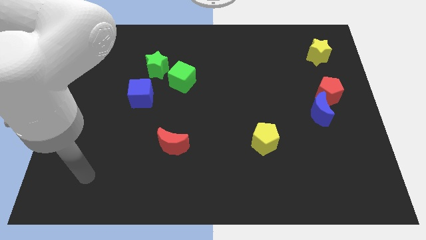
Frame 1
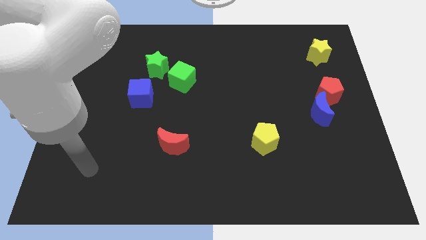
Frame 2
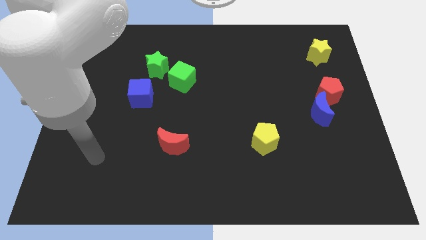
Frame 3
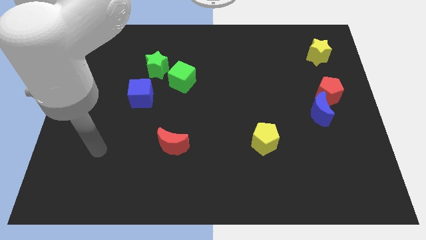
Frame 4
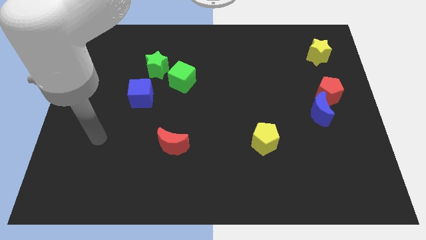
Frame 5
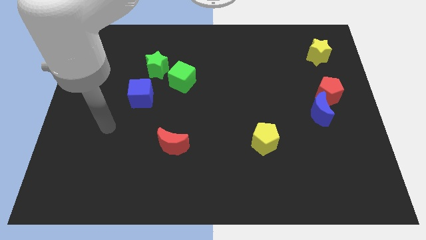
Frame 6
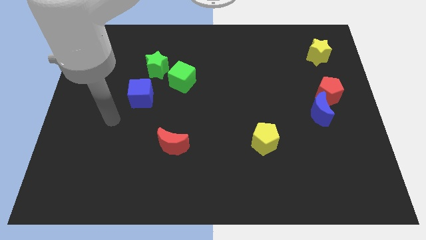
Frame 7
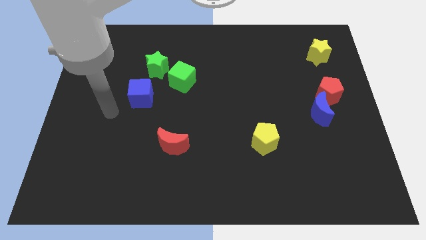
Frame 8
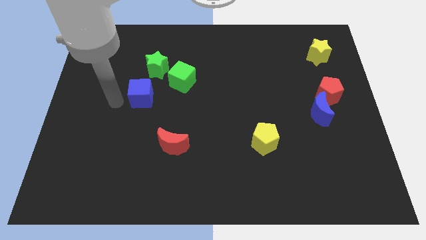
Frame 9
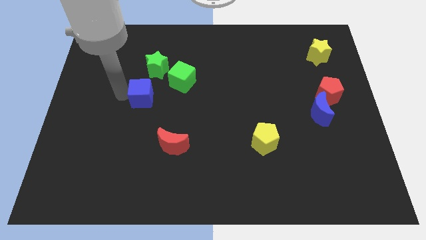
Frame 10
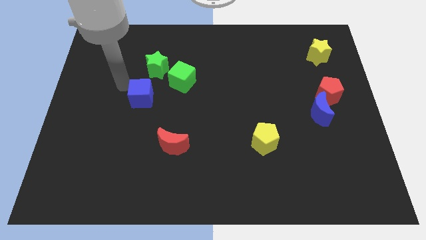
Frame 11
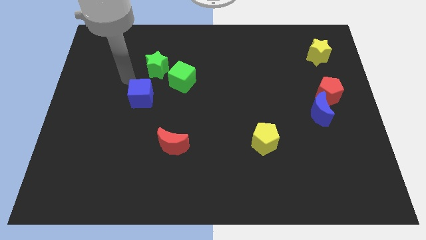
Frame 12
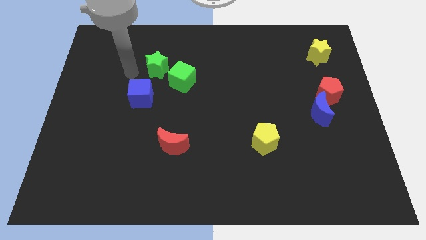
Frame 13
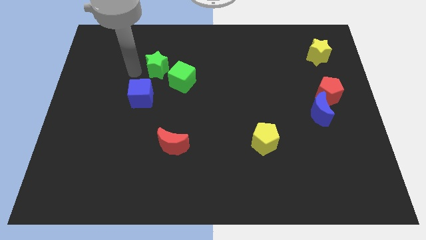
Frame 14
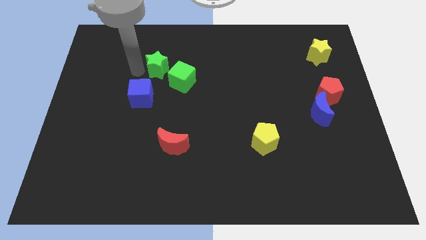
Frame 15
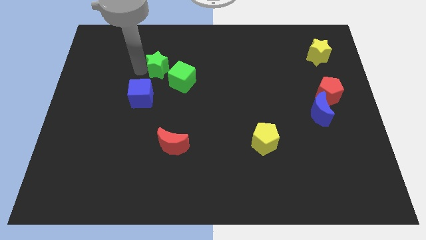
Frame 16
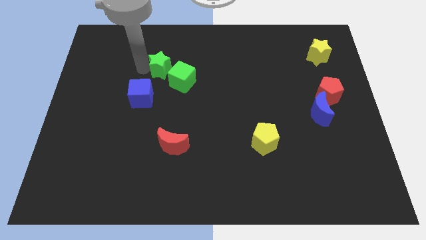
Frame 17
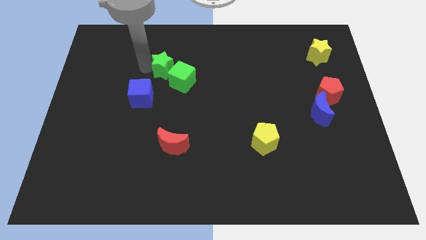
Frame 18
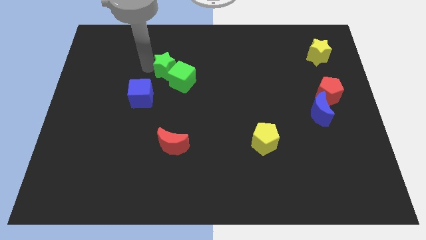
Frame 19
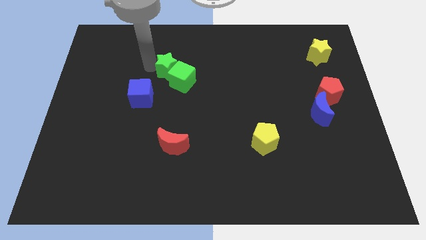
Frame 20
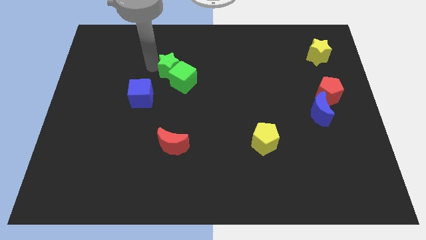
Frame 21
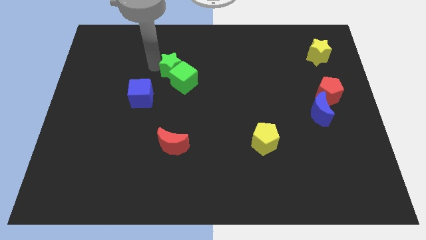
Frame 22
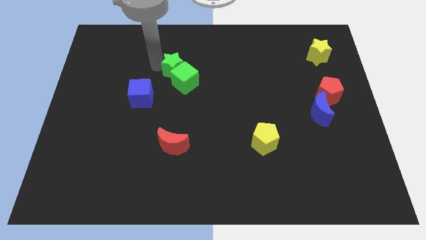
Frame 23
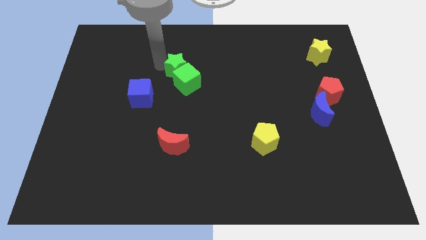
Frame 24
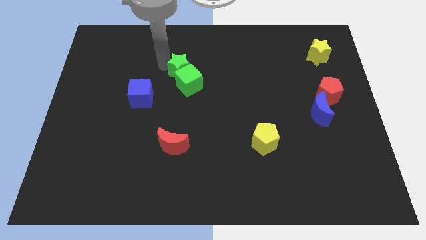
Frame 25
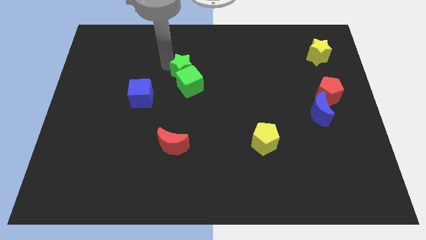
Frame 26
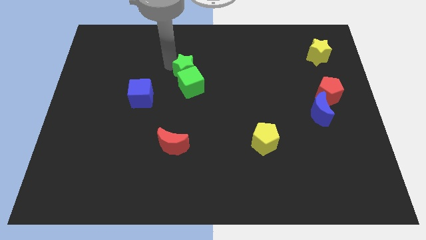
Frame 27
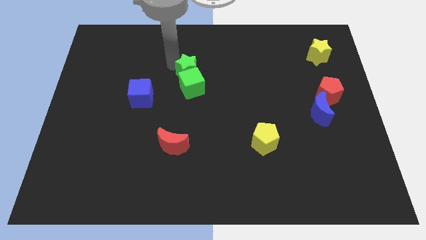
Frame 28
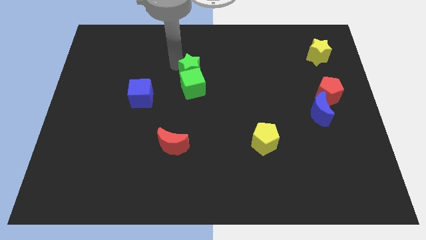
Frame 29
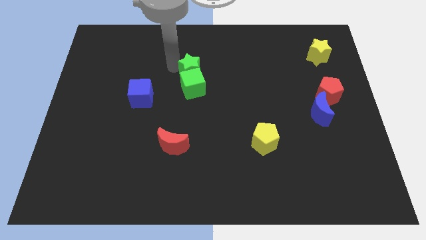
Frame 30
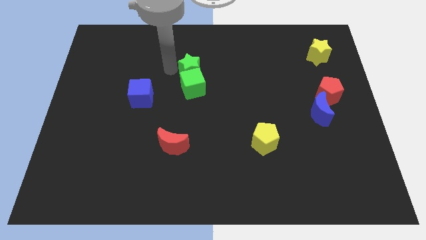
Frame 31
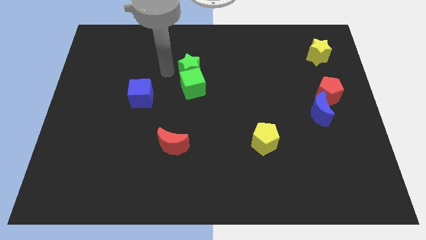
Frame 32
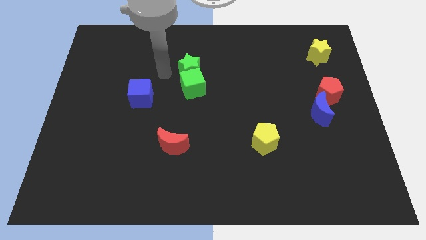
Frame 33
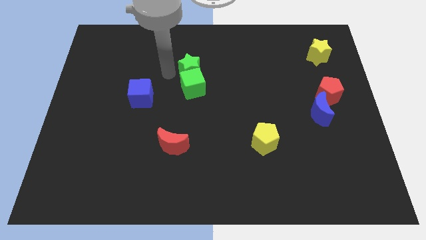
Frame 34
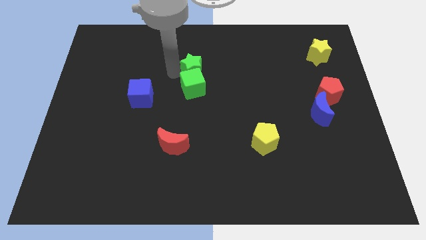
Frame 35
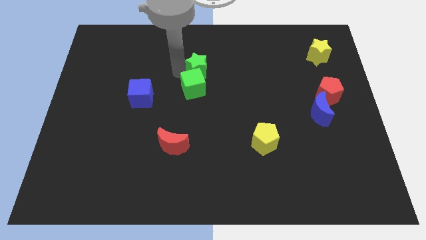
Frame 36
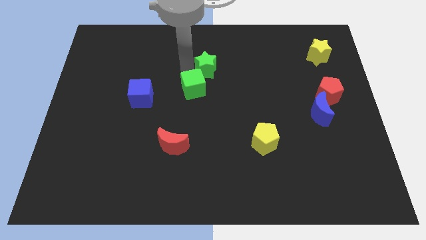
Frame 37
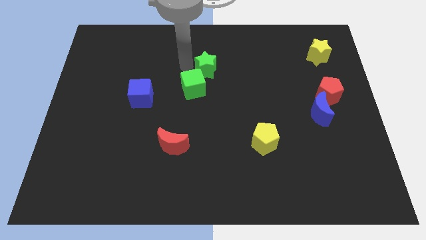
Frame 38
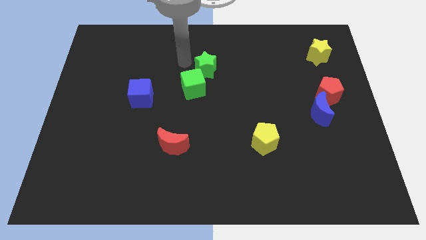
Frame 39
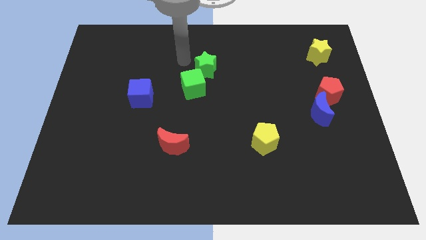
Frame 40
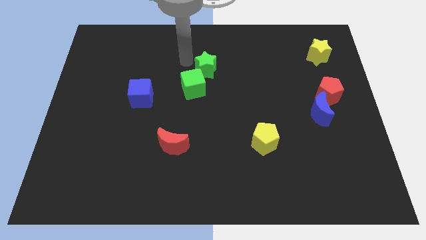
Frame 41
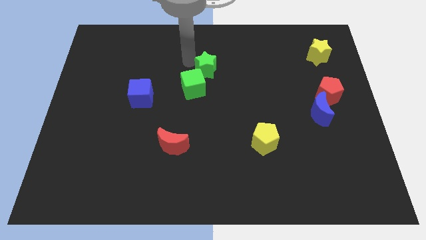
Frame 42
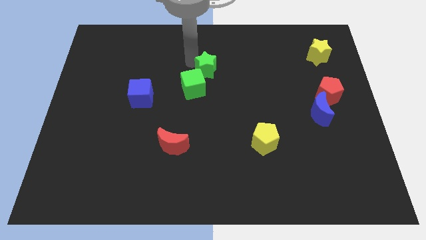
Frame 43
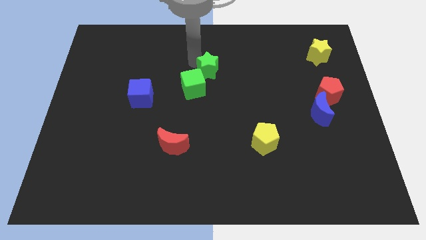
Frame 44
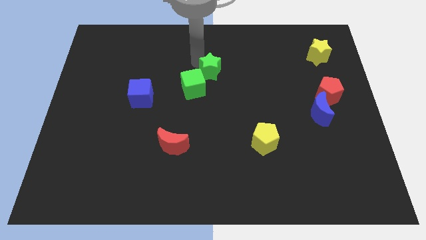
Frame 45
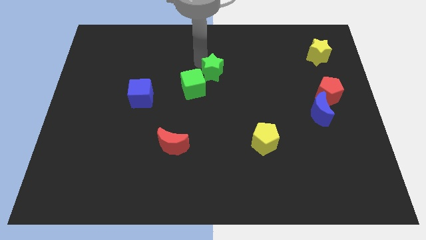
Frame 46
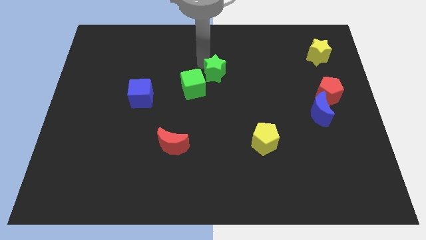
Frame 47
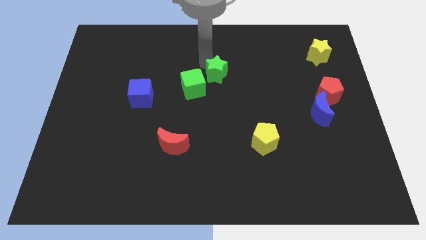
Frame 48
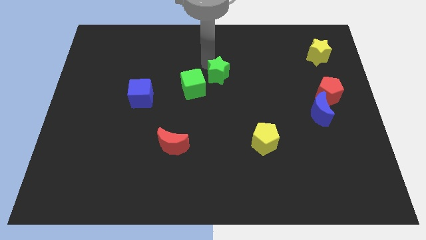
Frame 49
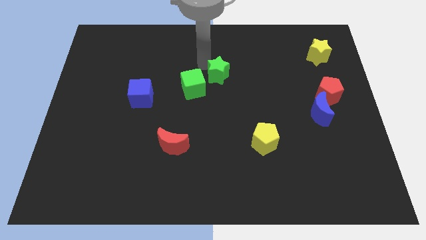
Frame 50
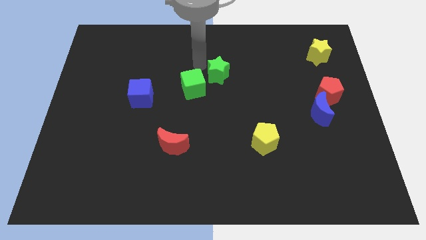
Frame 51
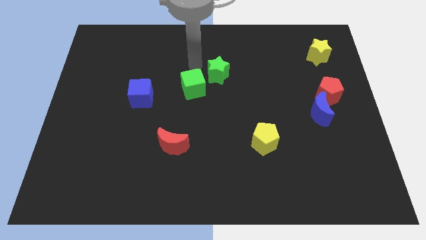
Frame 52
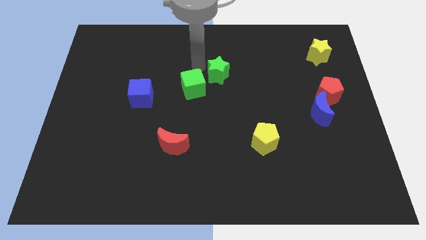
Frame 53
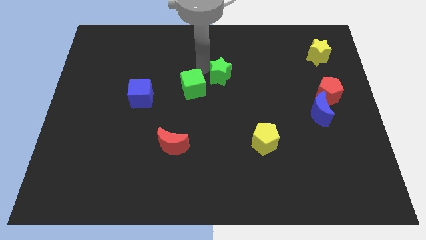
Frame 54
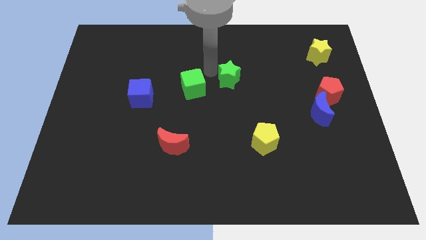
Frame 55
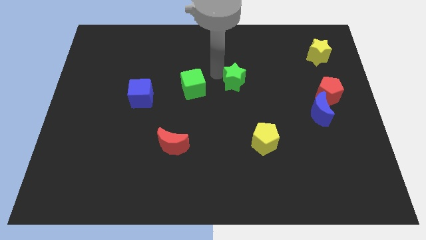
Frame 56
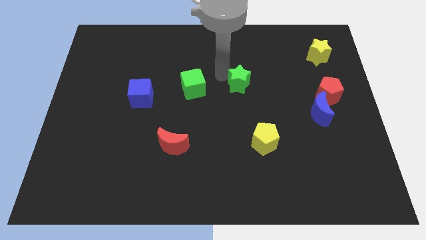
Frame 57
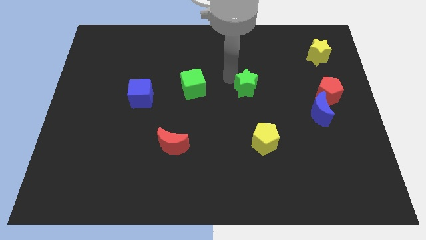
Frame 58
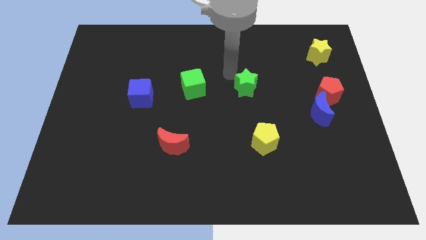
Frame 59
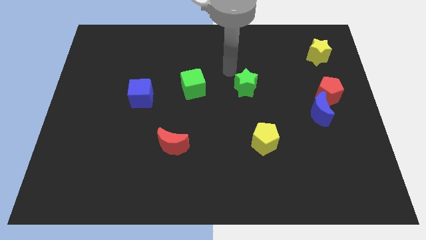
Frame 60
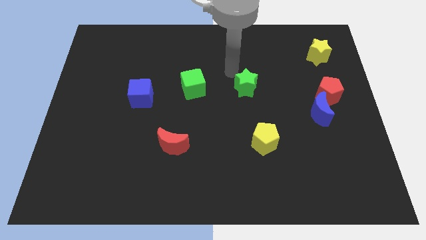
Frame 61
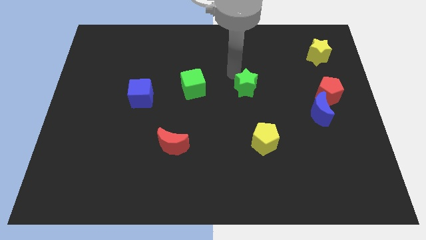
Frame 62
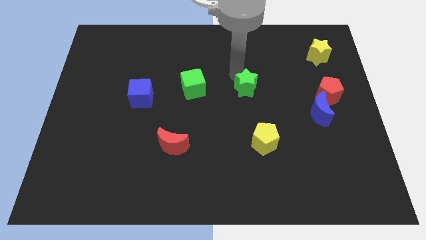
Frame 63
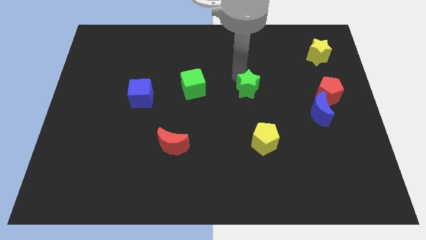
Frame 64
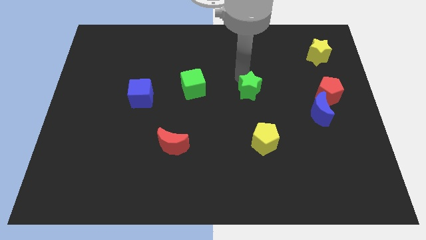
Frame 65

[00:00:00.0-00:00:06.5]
move the green star to the top side of the yellow pentagon

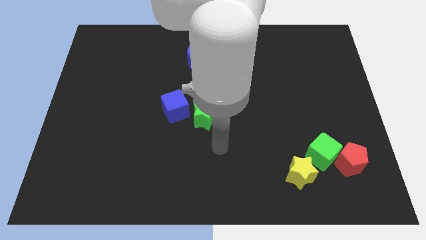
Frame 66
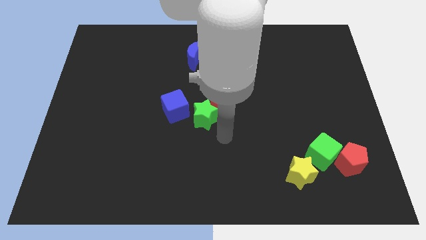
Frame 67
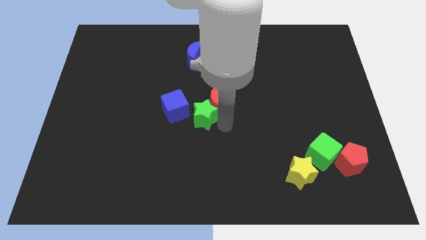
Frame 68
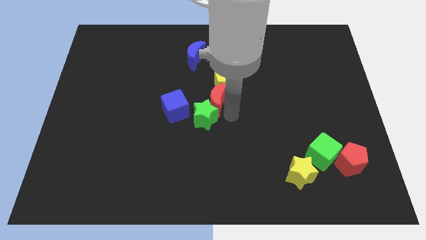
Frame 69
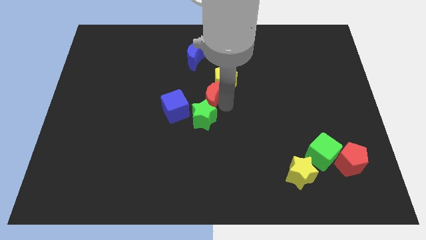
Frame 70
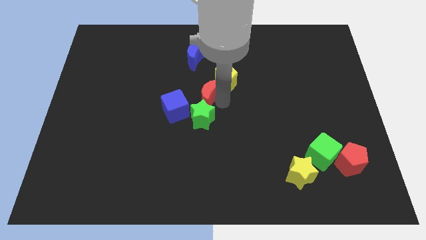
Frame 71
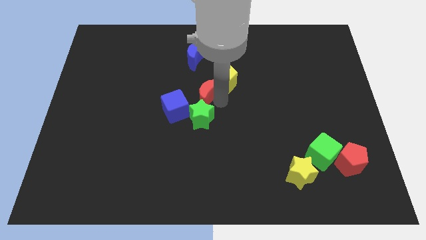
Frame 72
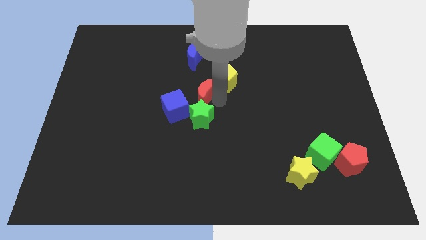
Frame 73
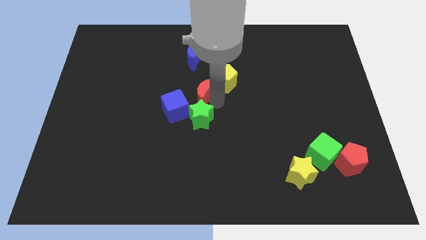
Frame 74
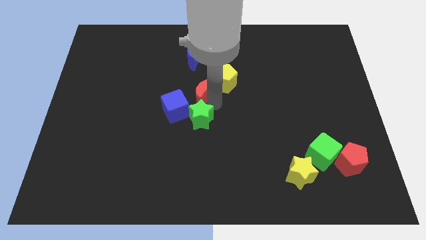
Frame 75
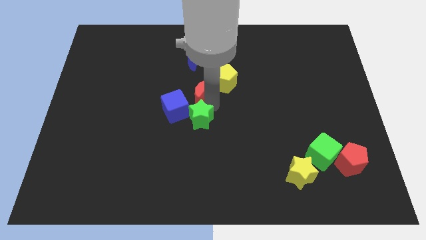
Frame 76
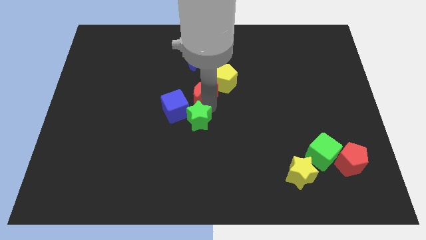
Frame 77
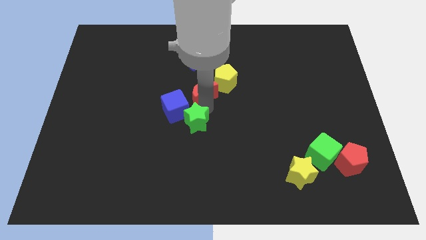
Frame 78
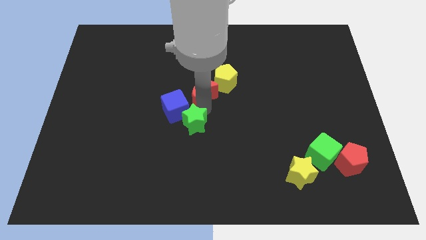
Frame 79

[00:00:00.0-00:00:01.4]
put the green star to the bottom of the blue cube
